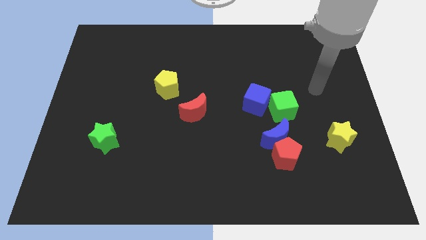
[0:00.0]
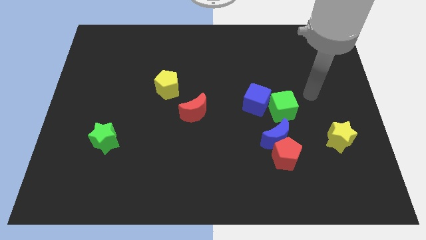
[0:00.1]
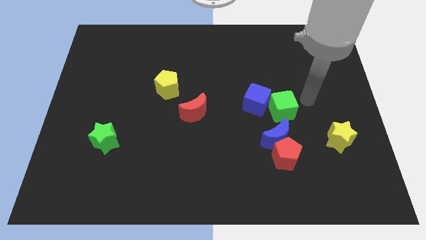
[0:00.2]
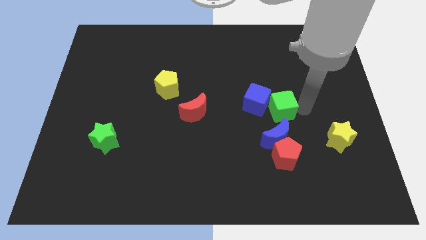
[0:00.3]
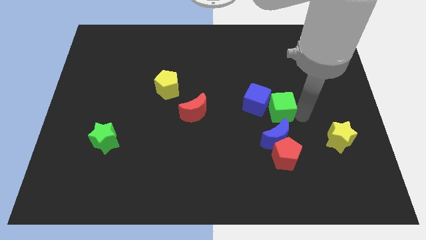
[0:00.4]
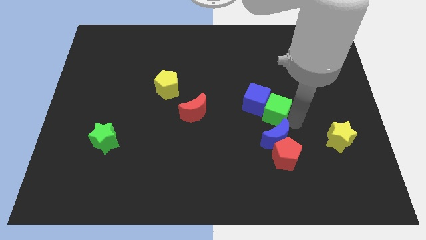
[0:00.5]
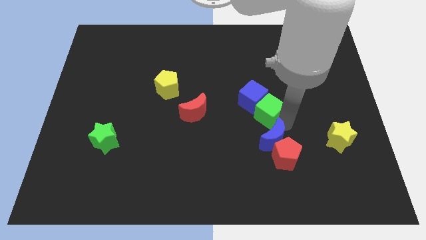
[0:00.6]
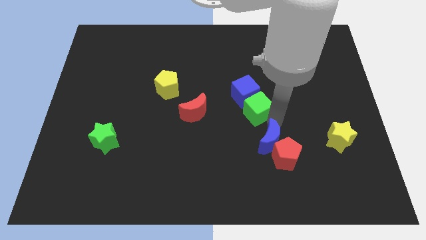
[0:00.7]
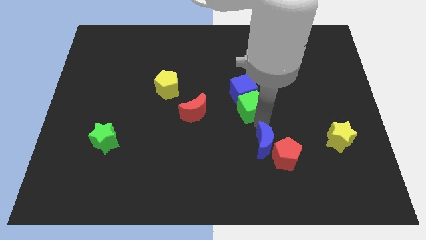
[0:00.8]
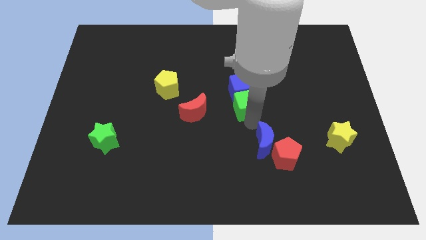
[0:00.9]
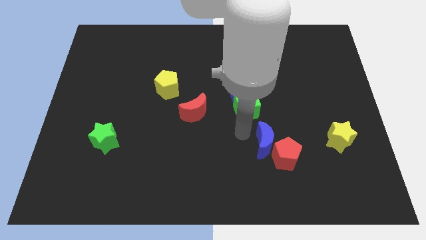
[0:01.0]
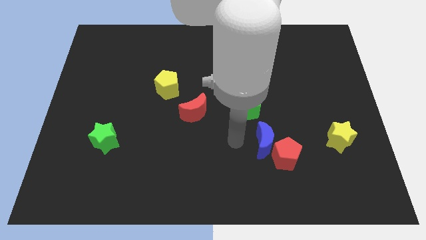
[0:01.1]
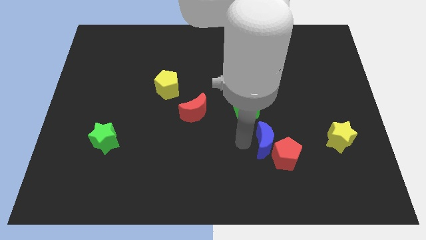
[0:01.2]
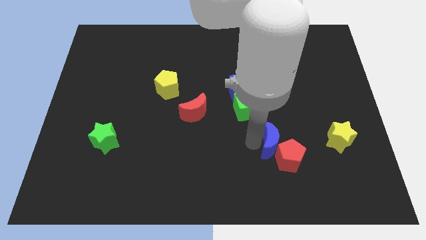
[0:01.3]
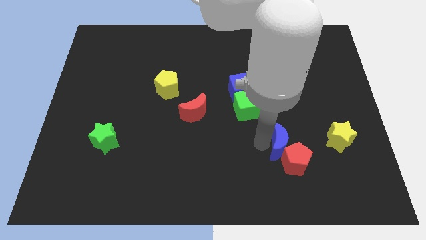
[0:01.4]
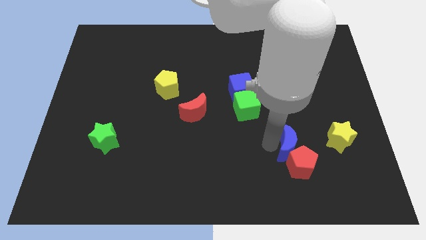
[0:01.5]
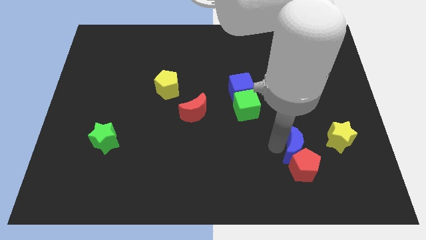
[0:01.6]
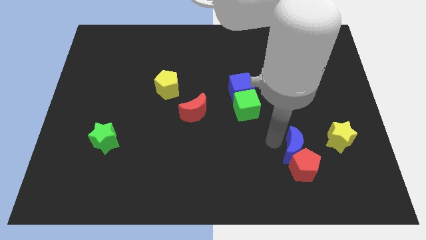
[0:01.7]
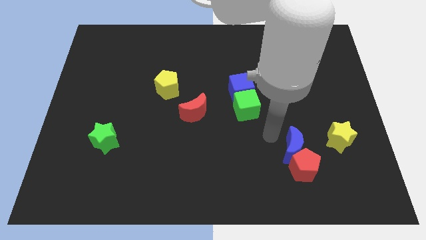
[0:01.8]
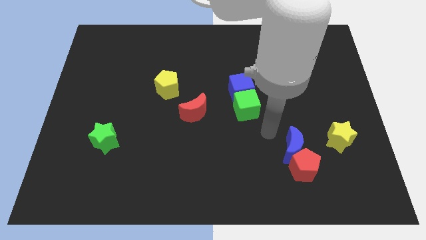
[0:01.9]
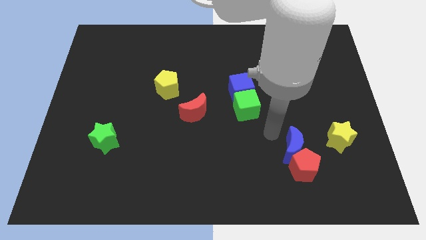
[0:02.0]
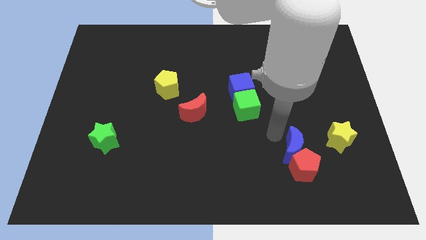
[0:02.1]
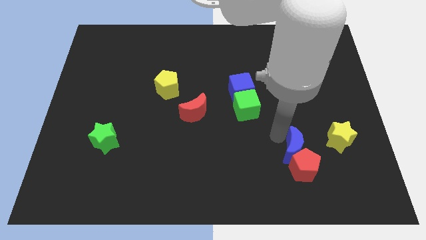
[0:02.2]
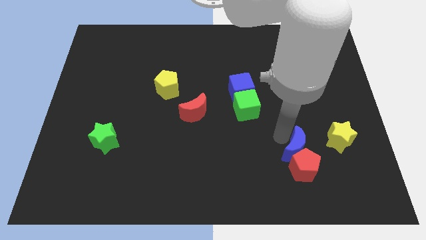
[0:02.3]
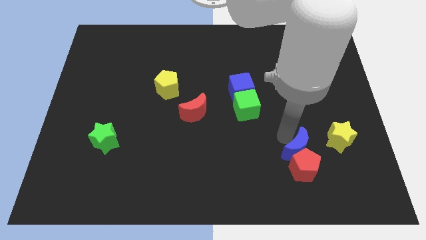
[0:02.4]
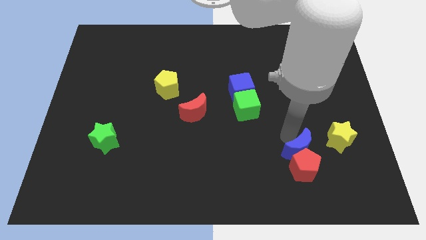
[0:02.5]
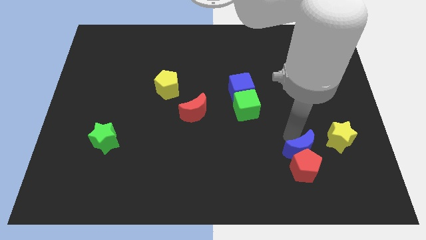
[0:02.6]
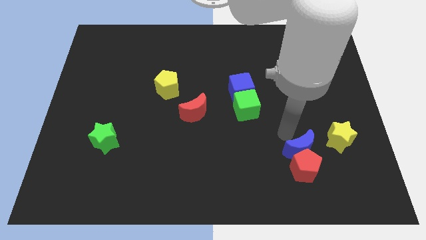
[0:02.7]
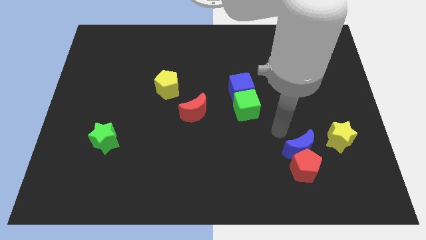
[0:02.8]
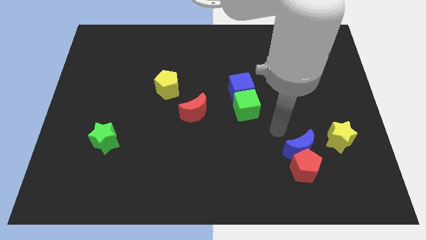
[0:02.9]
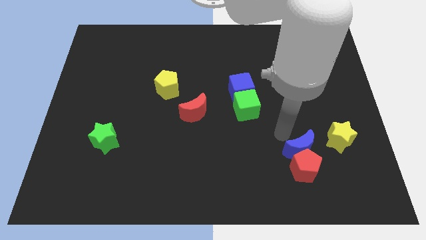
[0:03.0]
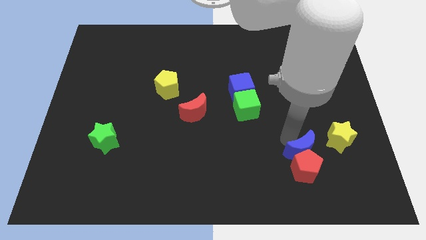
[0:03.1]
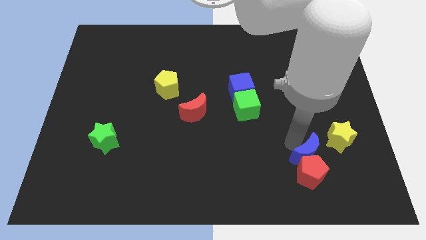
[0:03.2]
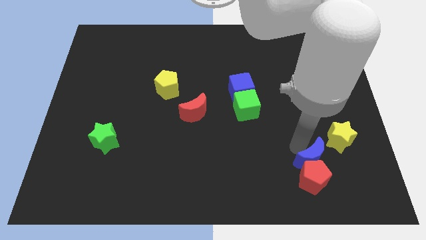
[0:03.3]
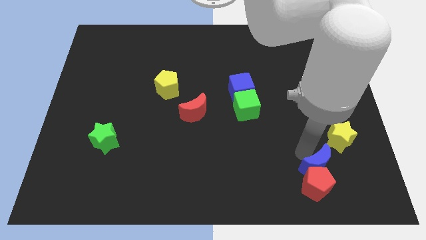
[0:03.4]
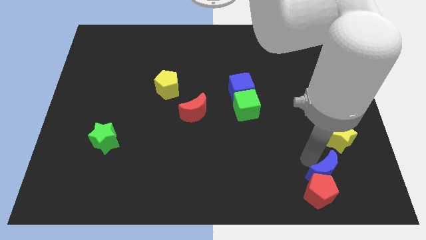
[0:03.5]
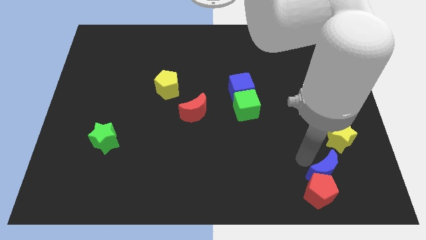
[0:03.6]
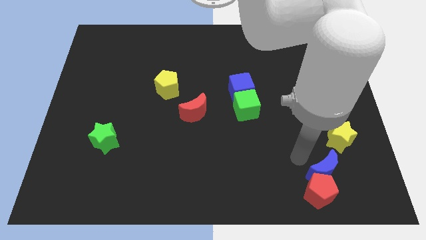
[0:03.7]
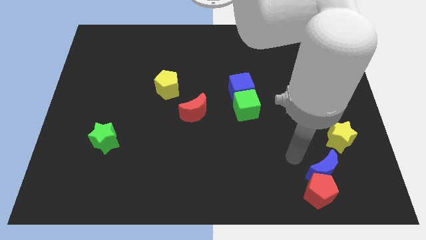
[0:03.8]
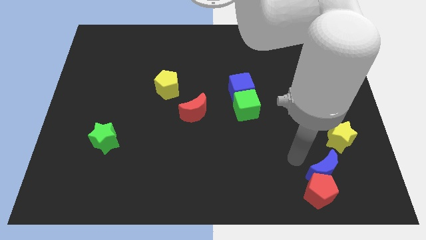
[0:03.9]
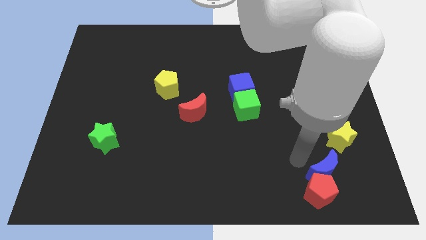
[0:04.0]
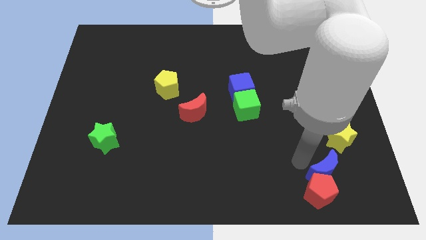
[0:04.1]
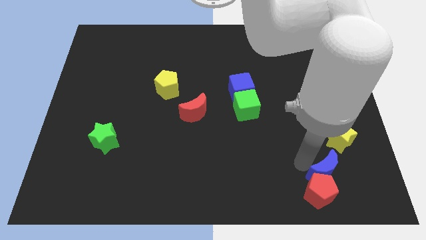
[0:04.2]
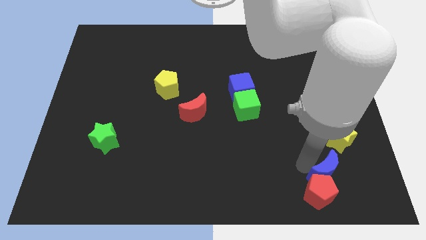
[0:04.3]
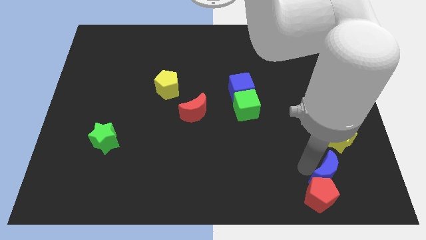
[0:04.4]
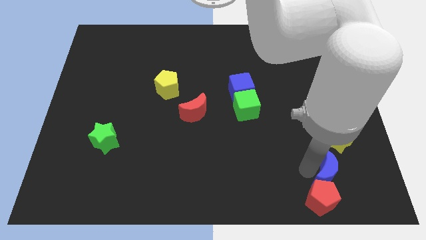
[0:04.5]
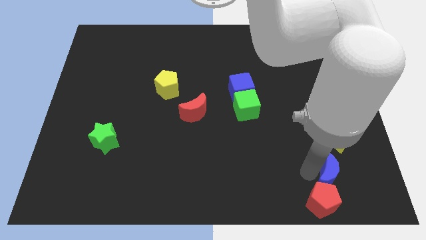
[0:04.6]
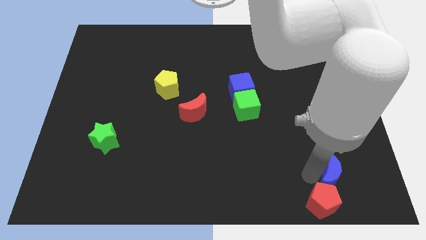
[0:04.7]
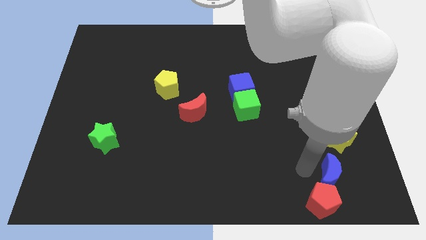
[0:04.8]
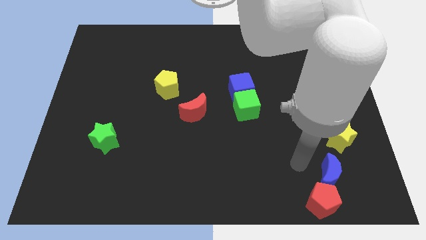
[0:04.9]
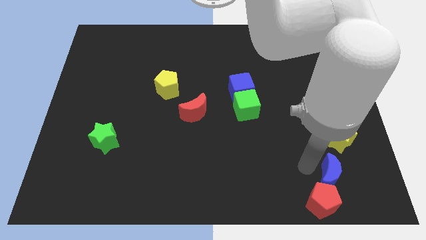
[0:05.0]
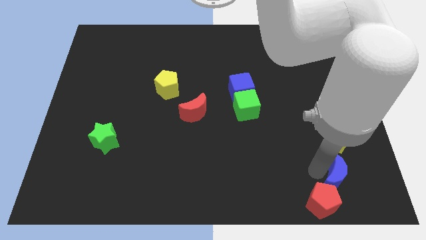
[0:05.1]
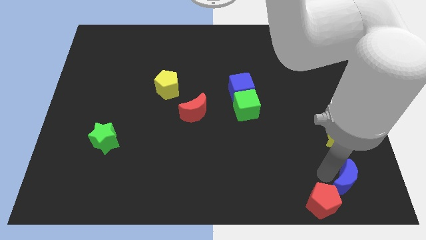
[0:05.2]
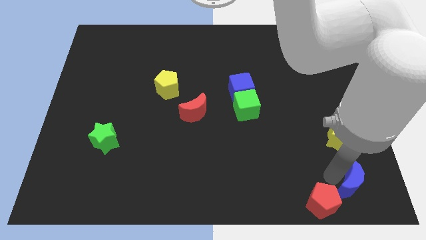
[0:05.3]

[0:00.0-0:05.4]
slide the blue moon to the bottom right

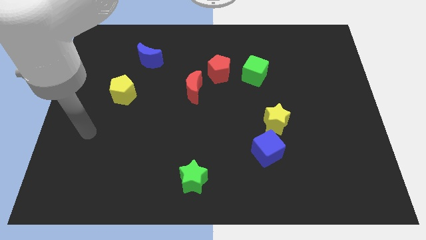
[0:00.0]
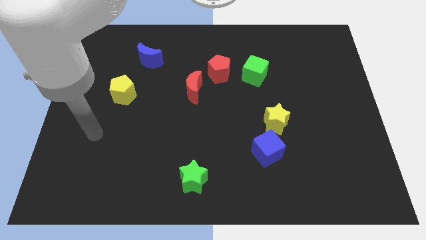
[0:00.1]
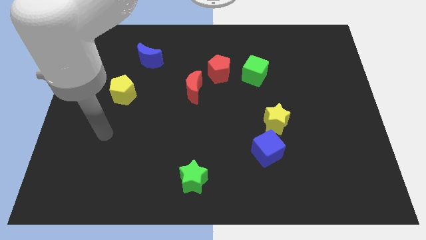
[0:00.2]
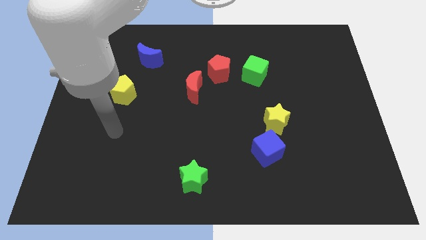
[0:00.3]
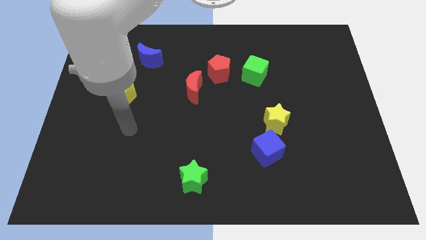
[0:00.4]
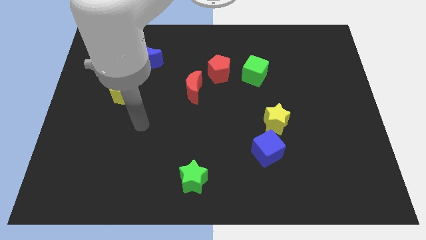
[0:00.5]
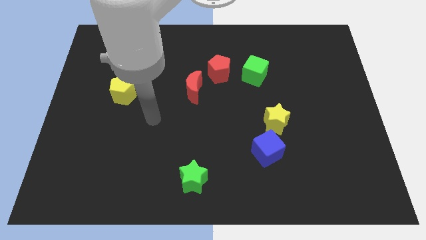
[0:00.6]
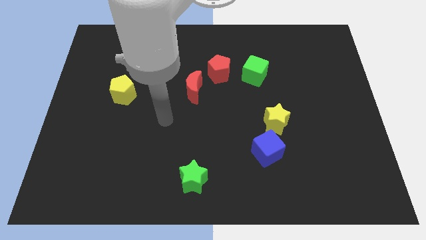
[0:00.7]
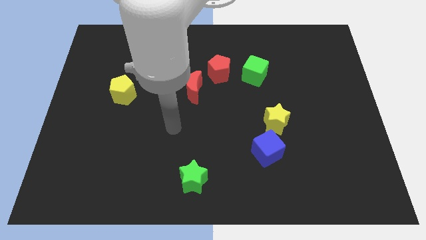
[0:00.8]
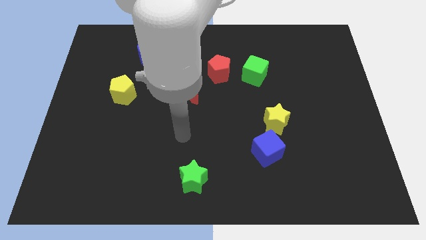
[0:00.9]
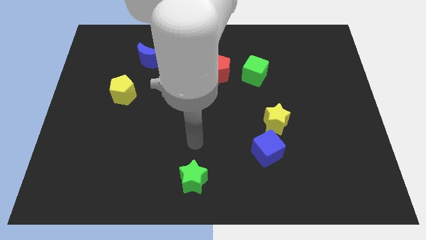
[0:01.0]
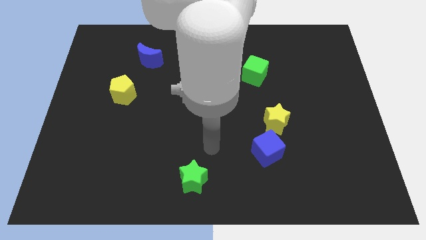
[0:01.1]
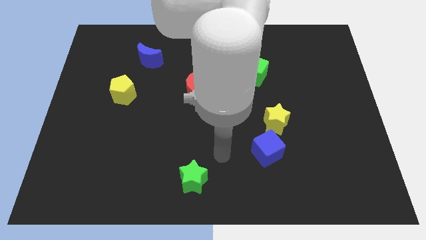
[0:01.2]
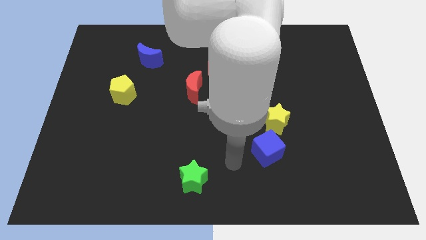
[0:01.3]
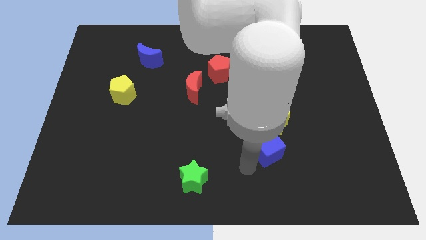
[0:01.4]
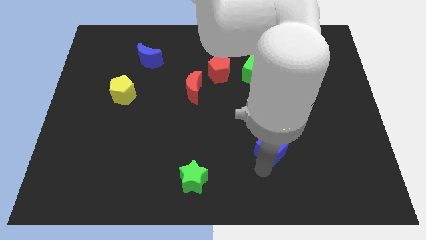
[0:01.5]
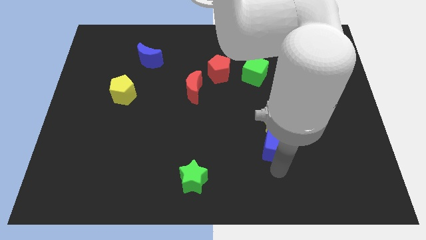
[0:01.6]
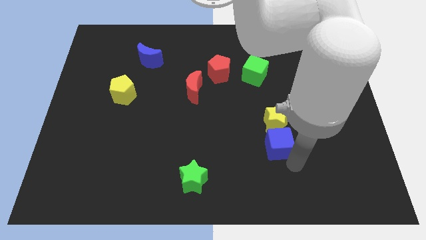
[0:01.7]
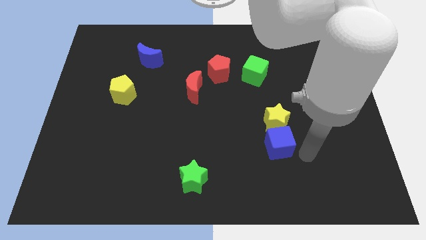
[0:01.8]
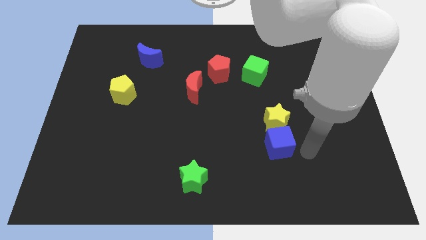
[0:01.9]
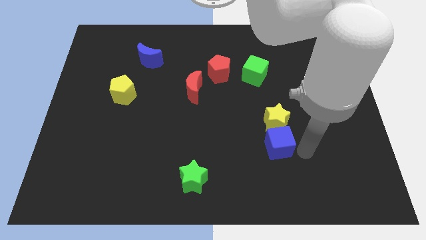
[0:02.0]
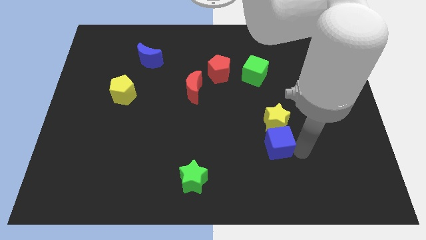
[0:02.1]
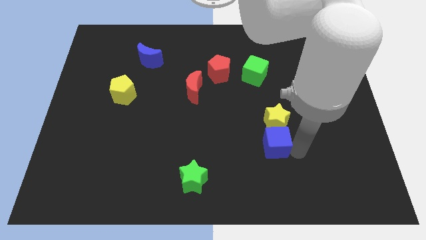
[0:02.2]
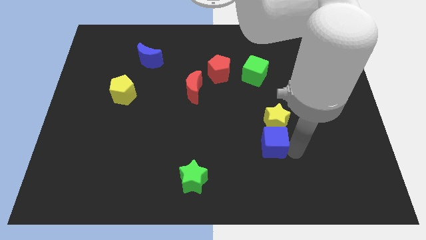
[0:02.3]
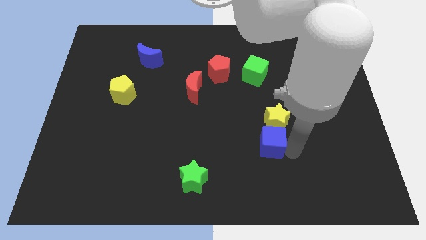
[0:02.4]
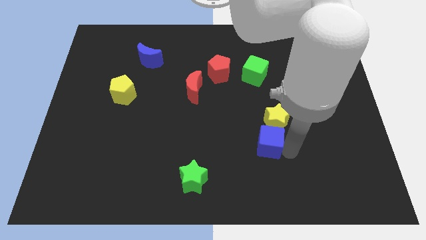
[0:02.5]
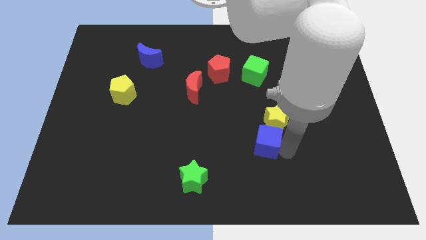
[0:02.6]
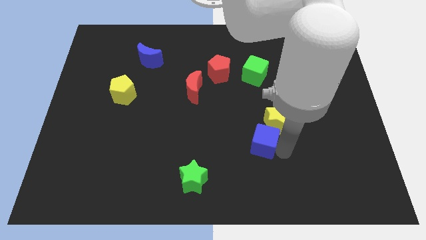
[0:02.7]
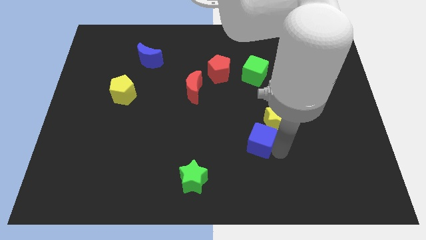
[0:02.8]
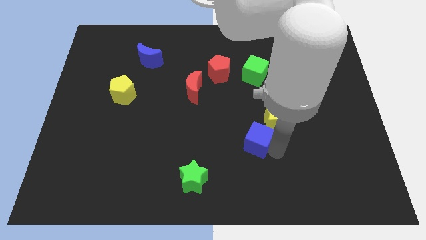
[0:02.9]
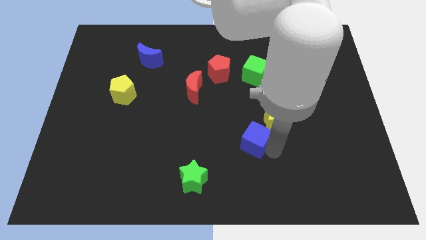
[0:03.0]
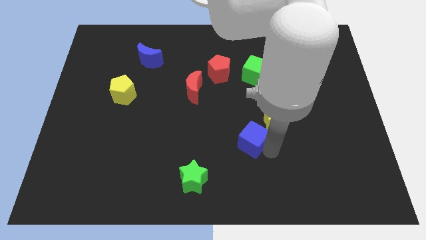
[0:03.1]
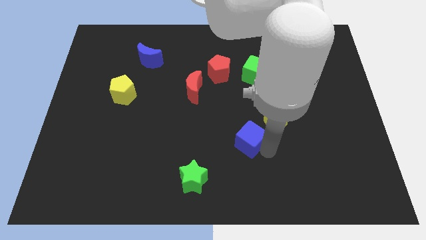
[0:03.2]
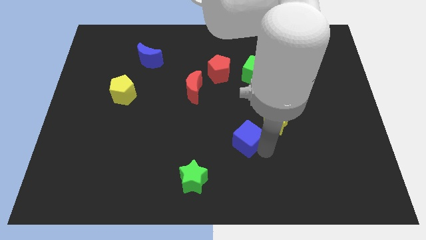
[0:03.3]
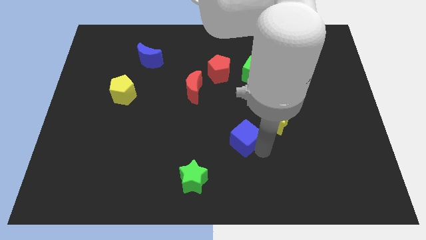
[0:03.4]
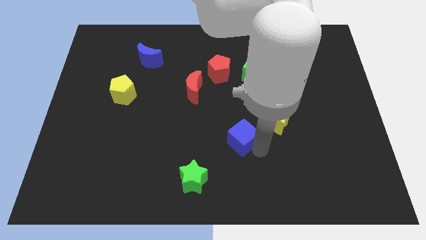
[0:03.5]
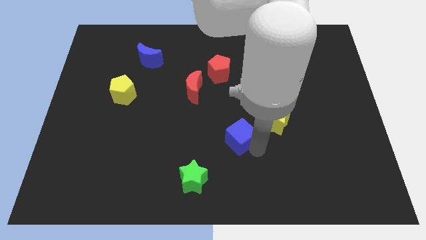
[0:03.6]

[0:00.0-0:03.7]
slide the blue cube to the center
